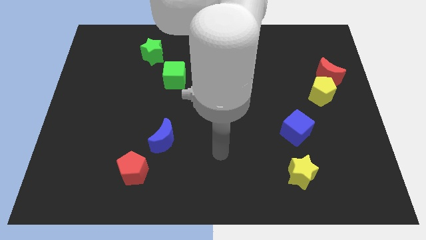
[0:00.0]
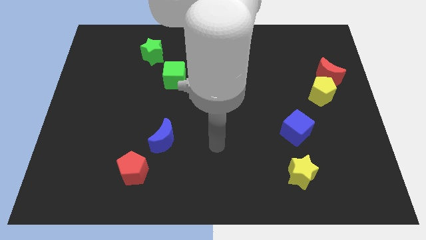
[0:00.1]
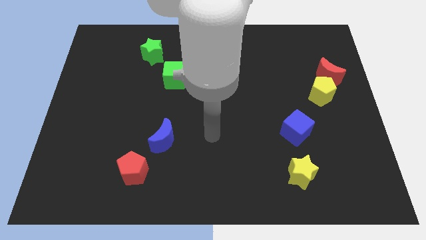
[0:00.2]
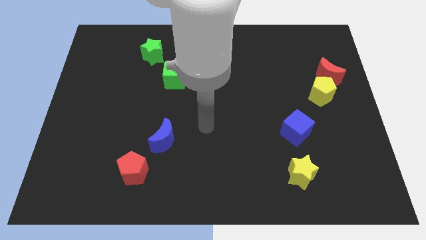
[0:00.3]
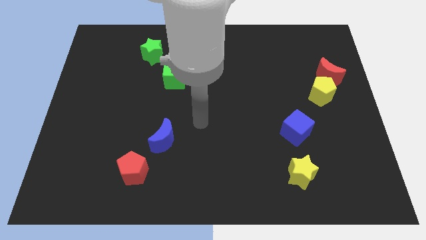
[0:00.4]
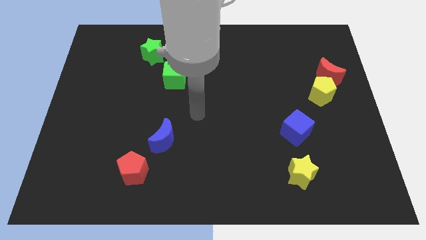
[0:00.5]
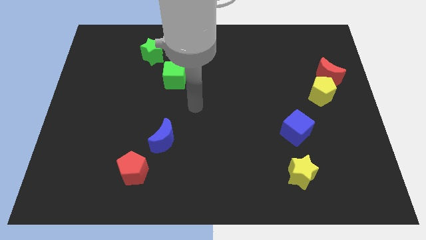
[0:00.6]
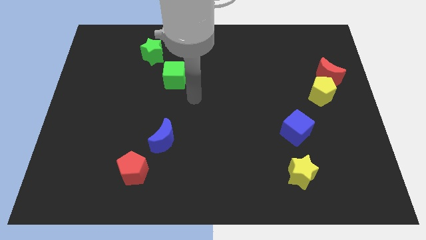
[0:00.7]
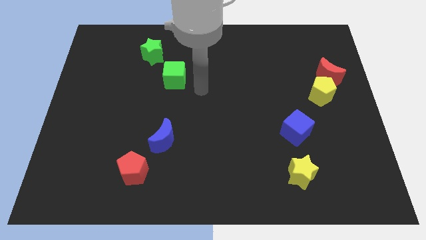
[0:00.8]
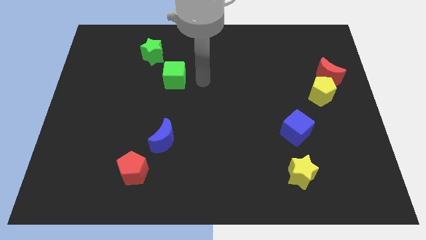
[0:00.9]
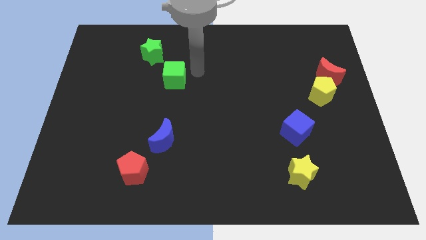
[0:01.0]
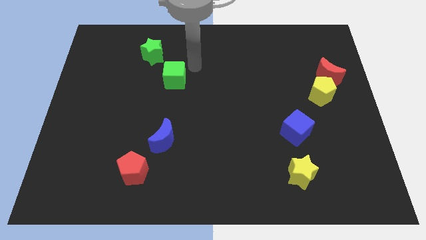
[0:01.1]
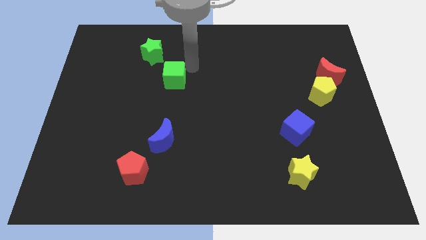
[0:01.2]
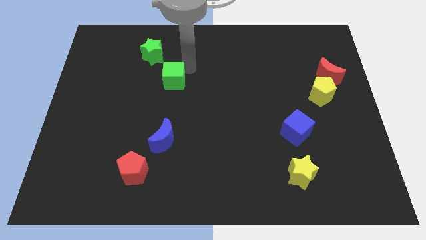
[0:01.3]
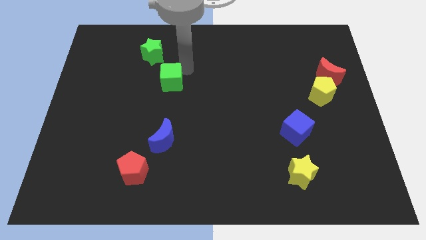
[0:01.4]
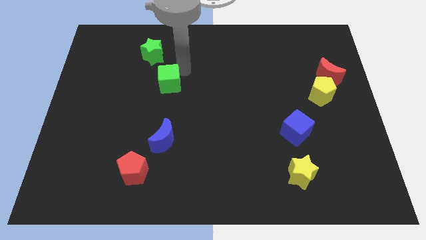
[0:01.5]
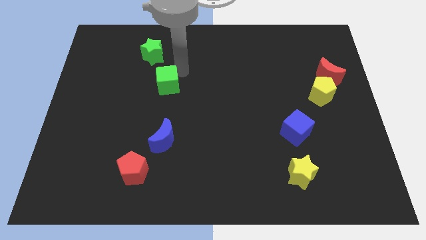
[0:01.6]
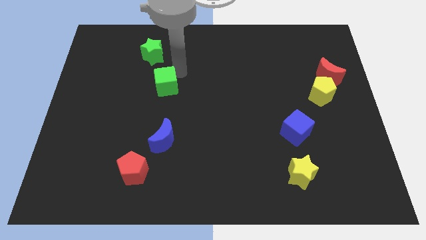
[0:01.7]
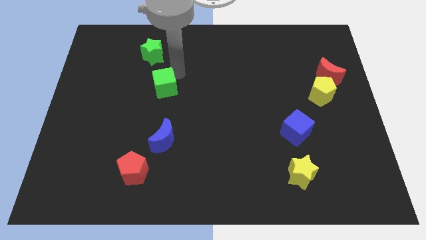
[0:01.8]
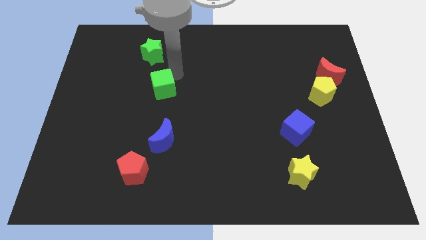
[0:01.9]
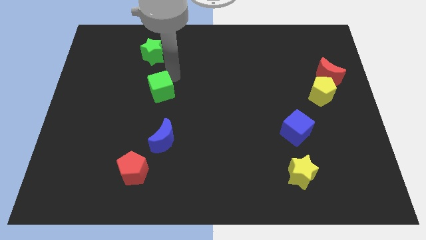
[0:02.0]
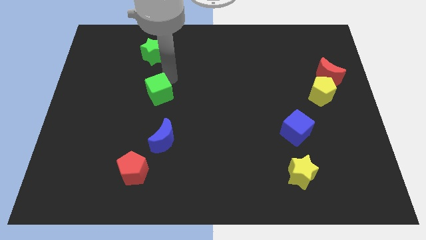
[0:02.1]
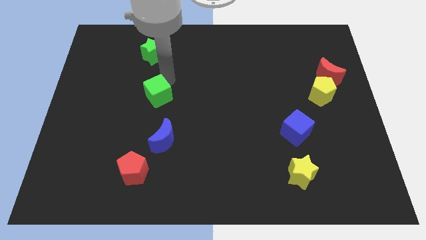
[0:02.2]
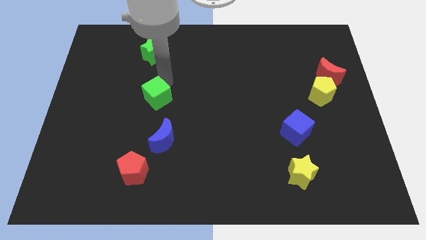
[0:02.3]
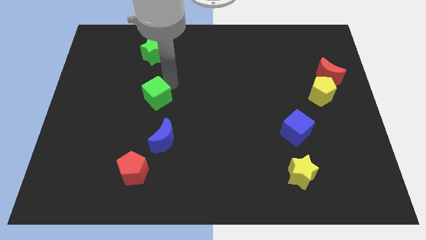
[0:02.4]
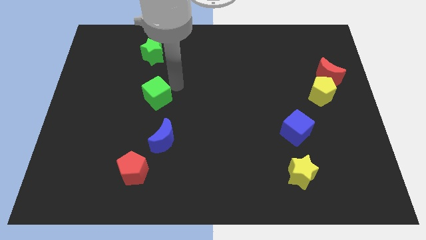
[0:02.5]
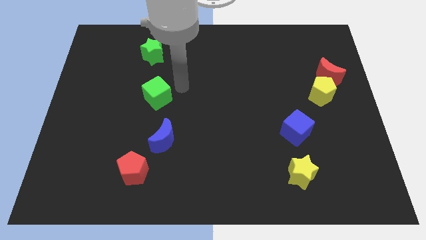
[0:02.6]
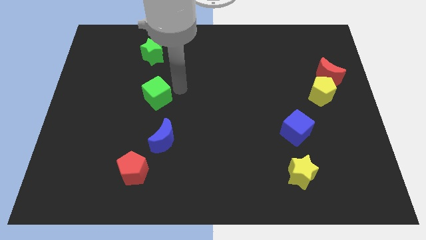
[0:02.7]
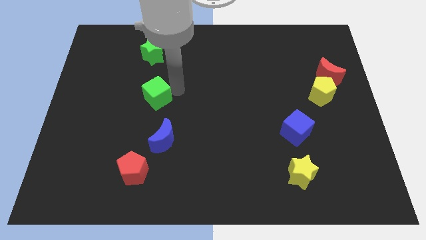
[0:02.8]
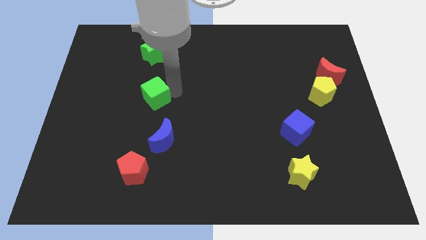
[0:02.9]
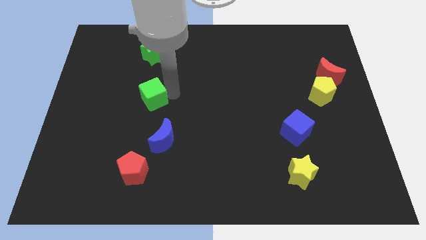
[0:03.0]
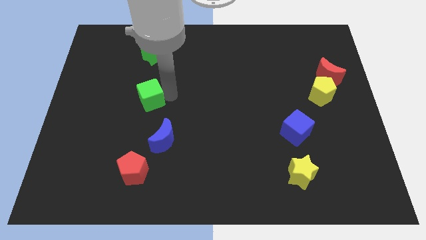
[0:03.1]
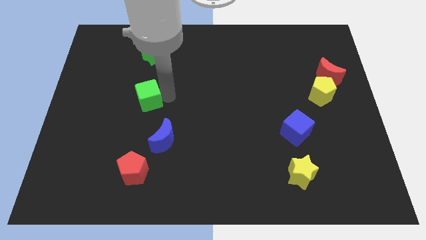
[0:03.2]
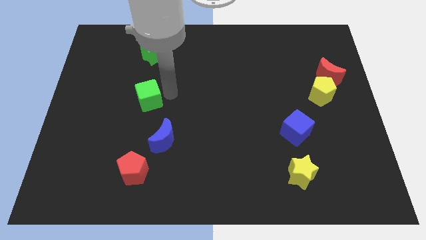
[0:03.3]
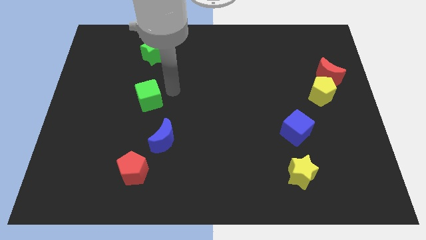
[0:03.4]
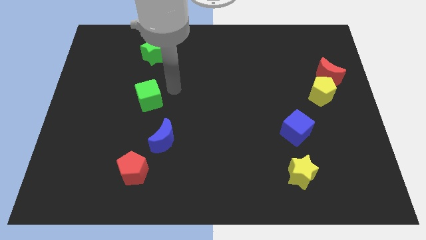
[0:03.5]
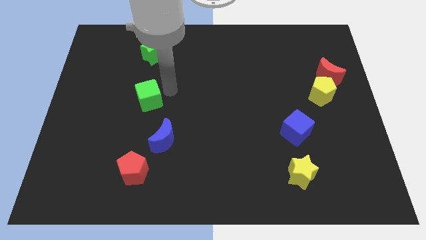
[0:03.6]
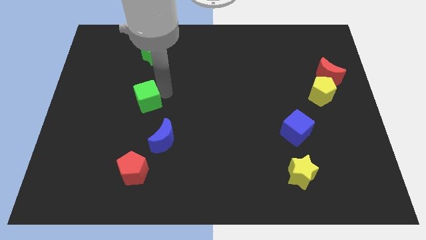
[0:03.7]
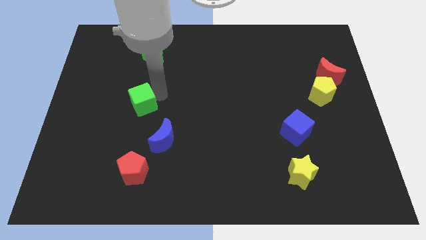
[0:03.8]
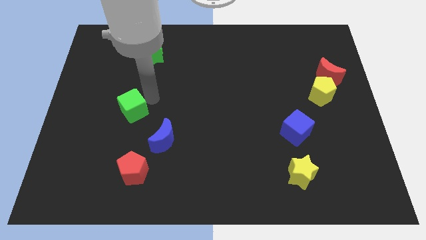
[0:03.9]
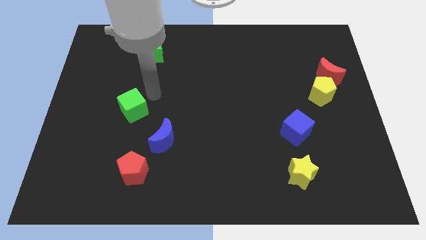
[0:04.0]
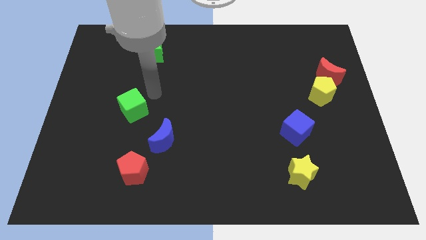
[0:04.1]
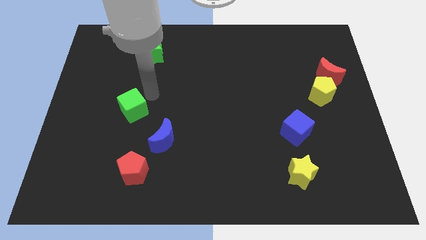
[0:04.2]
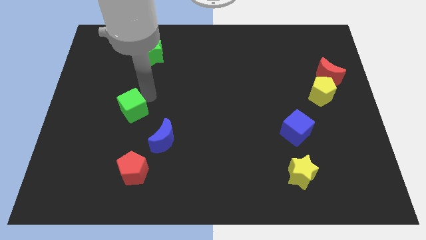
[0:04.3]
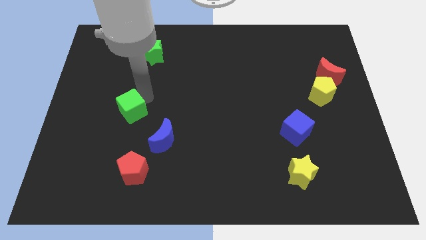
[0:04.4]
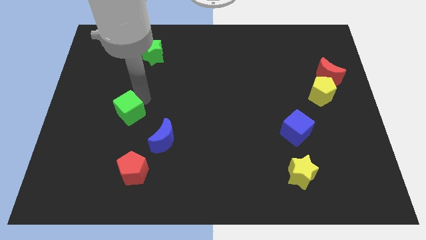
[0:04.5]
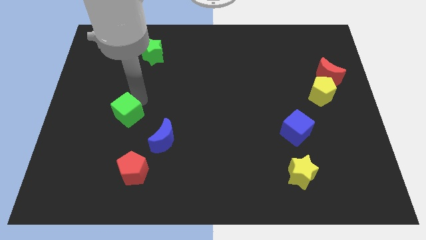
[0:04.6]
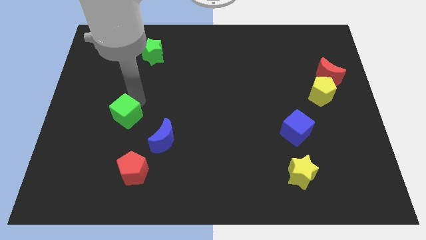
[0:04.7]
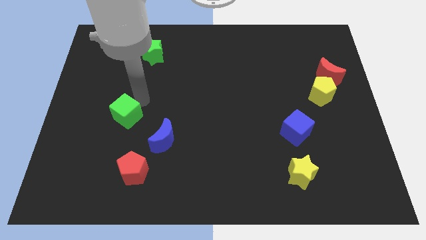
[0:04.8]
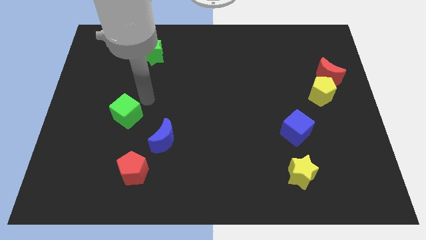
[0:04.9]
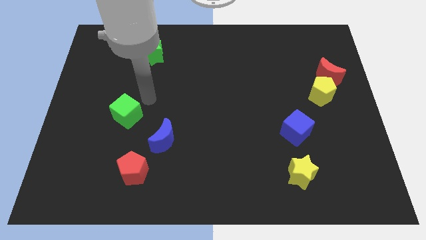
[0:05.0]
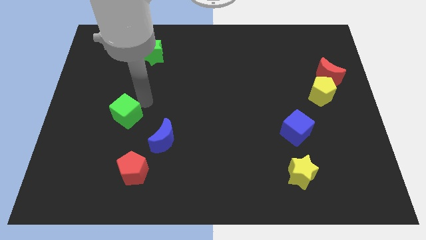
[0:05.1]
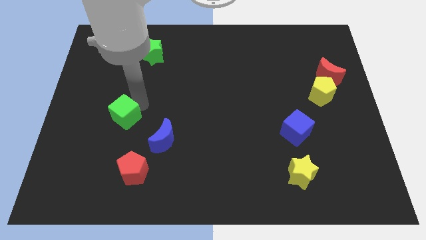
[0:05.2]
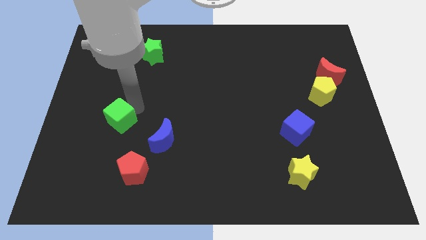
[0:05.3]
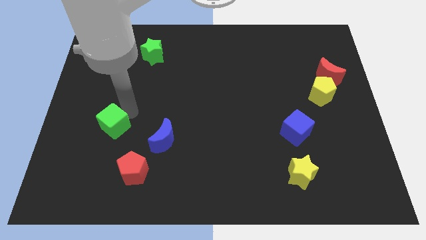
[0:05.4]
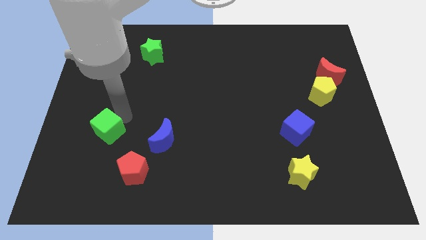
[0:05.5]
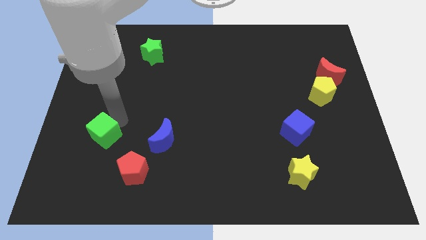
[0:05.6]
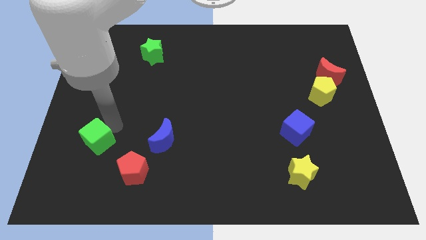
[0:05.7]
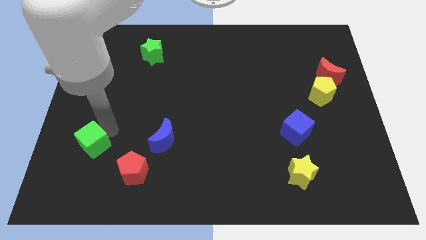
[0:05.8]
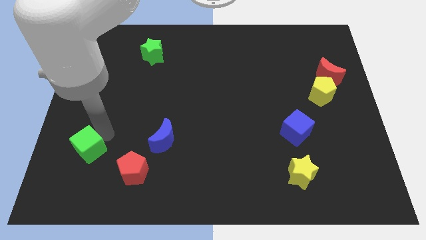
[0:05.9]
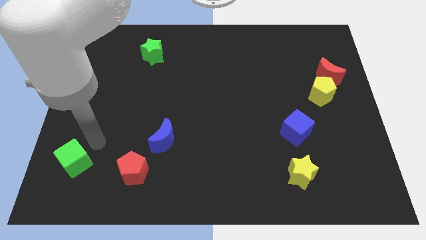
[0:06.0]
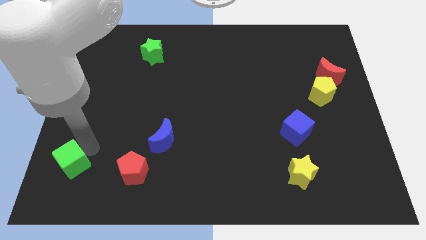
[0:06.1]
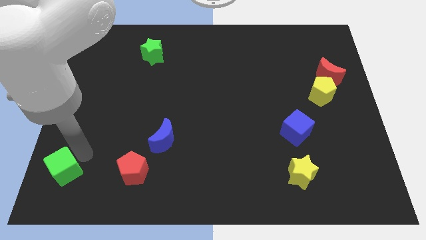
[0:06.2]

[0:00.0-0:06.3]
put the green cube to the bottom left corner
